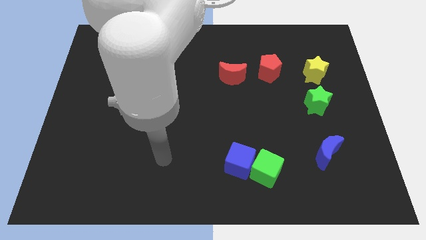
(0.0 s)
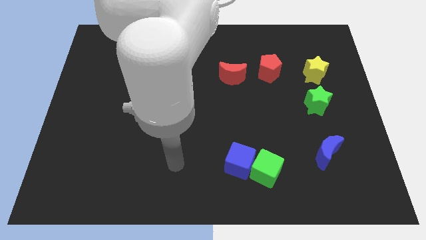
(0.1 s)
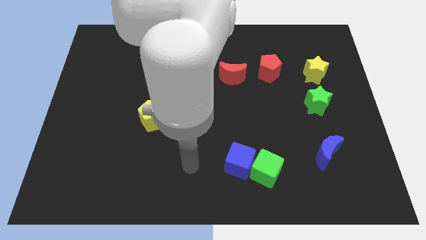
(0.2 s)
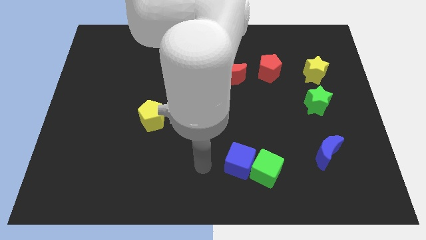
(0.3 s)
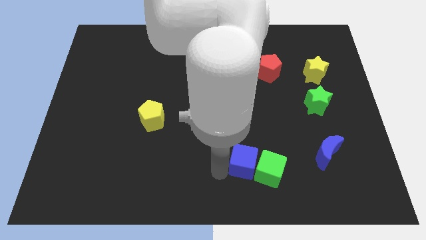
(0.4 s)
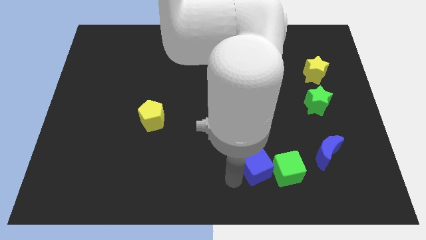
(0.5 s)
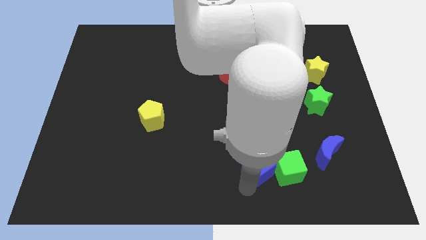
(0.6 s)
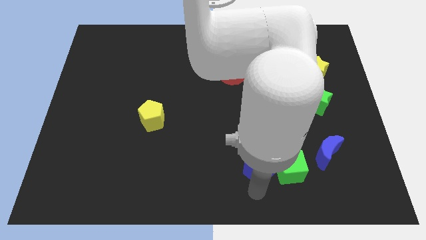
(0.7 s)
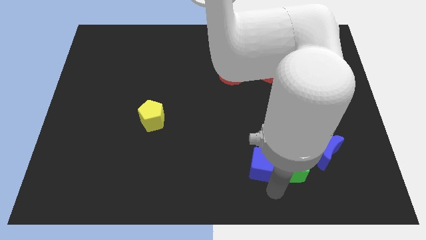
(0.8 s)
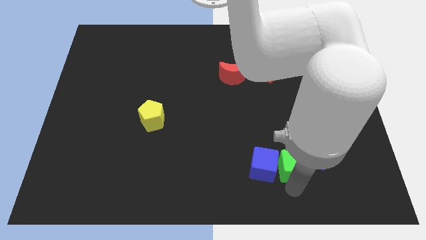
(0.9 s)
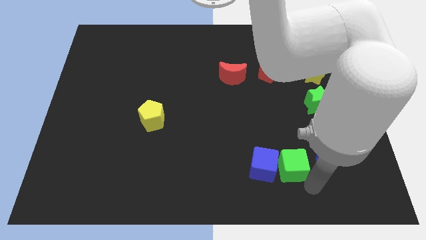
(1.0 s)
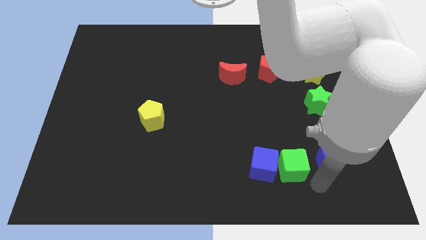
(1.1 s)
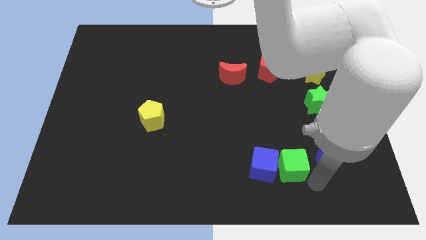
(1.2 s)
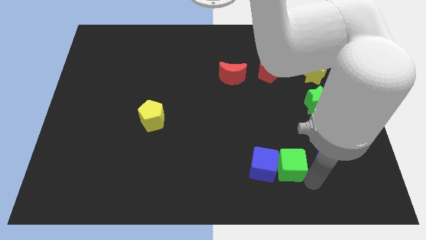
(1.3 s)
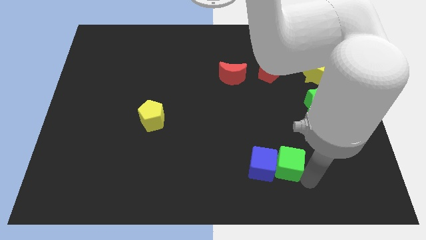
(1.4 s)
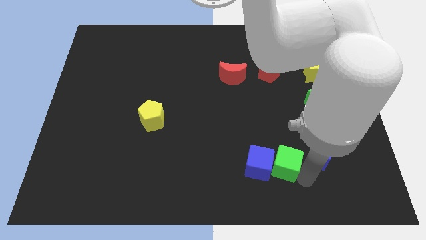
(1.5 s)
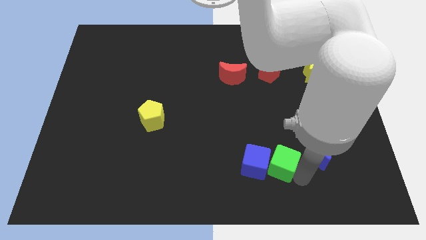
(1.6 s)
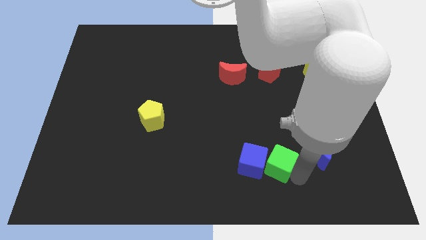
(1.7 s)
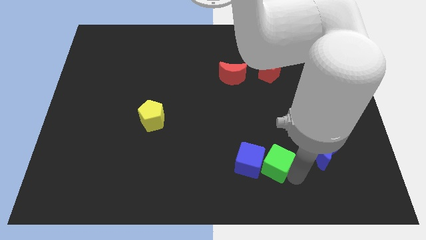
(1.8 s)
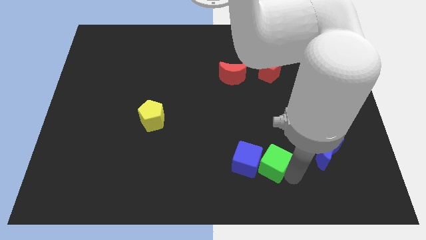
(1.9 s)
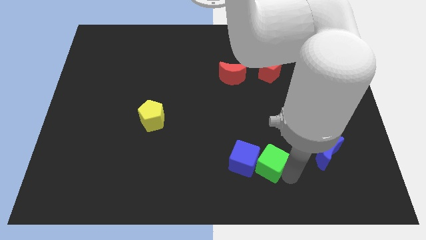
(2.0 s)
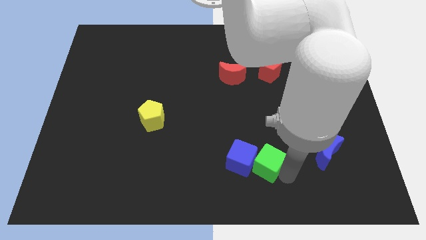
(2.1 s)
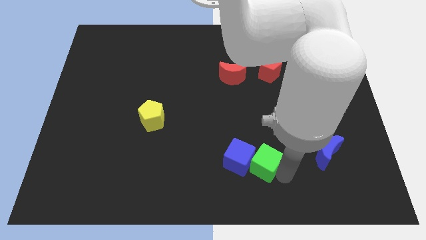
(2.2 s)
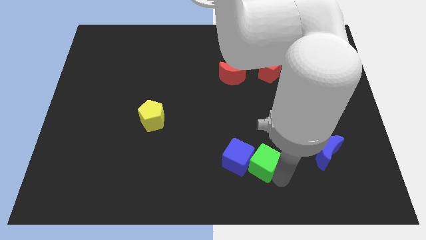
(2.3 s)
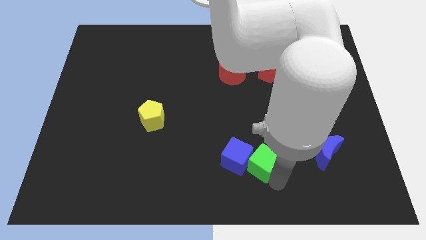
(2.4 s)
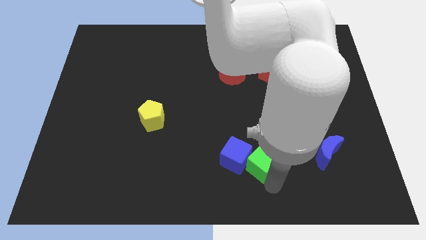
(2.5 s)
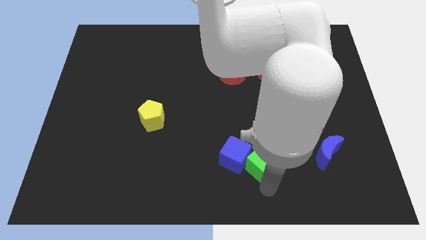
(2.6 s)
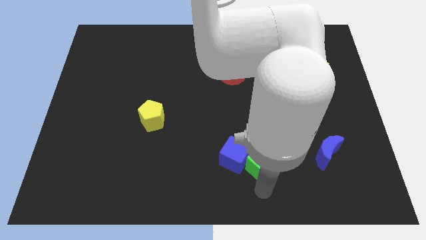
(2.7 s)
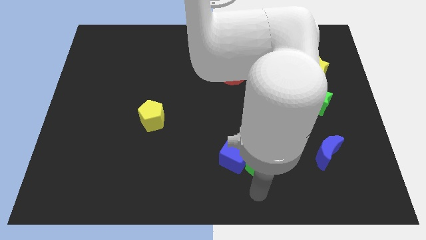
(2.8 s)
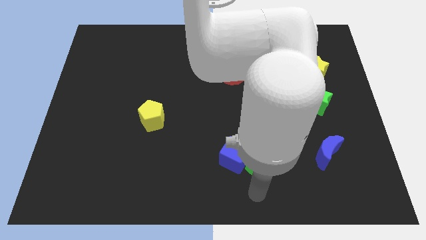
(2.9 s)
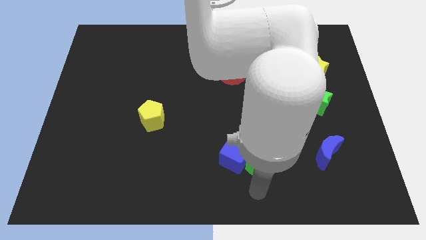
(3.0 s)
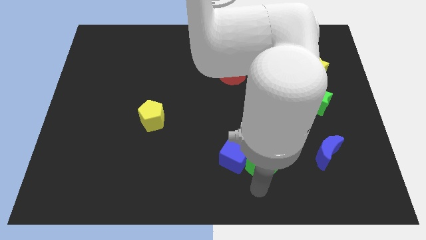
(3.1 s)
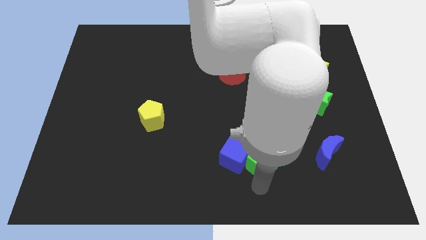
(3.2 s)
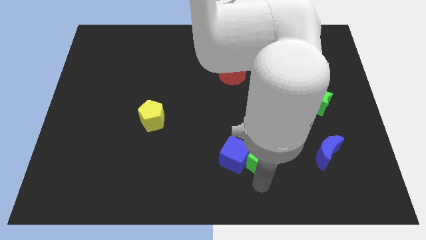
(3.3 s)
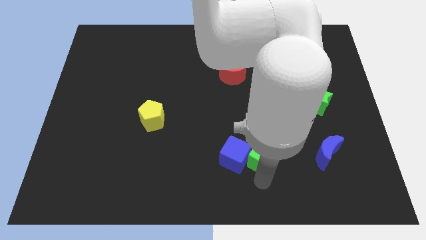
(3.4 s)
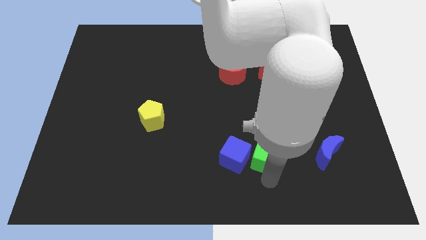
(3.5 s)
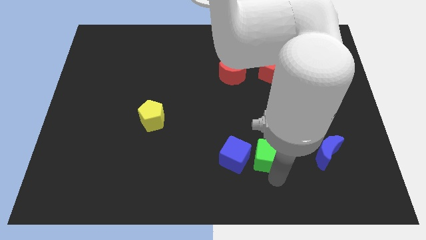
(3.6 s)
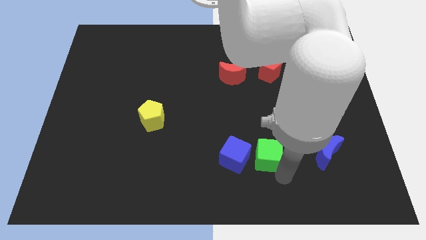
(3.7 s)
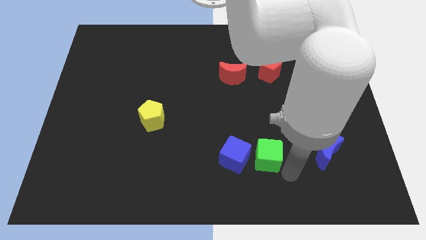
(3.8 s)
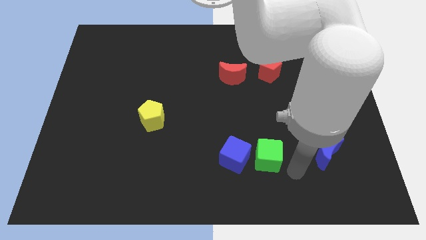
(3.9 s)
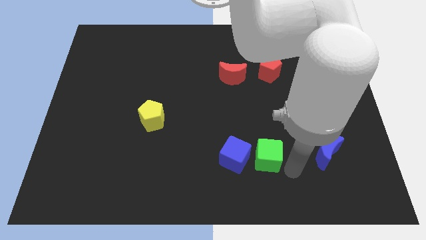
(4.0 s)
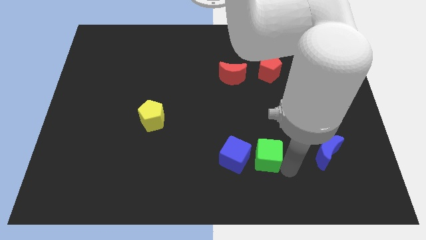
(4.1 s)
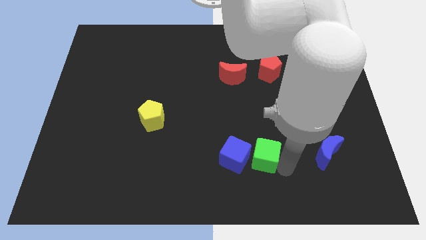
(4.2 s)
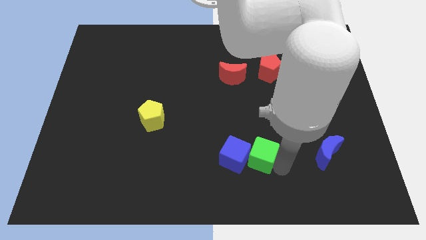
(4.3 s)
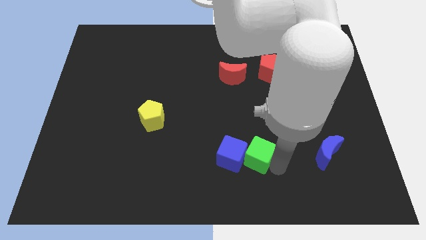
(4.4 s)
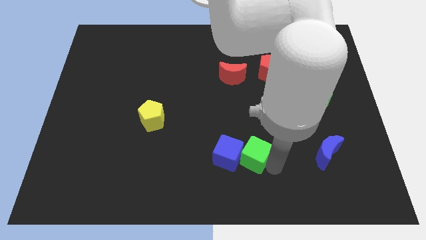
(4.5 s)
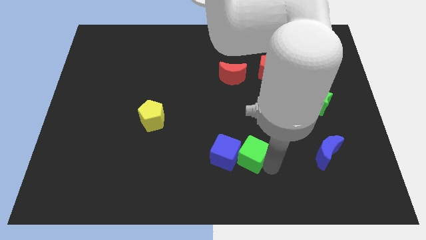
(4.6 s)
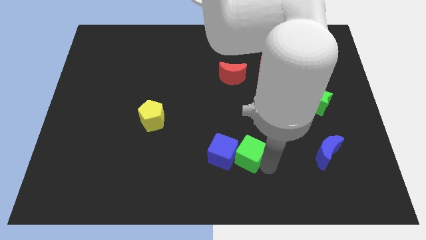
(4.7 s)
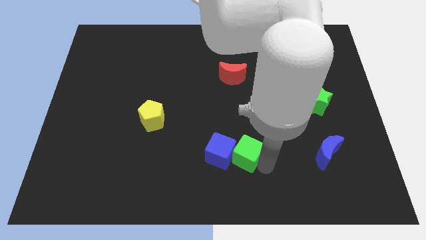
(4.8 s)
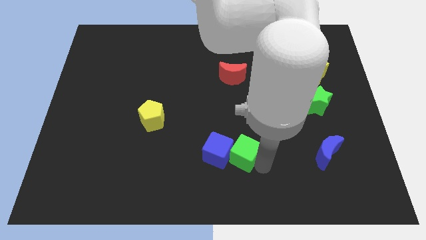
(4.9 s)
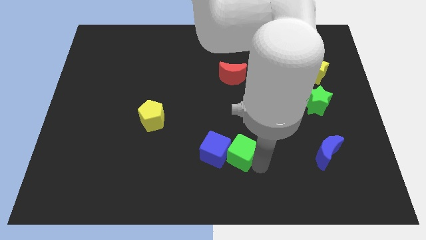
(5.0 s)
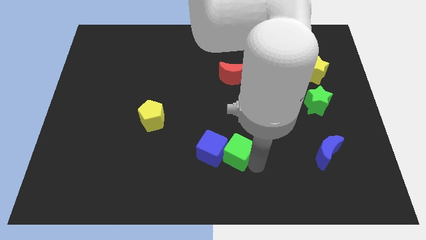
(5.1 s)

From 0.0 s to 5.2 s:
move the green cube a little bit up and left diagonally

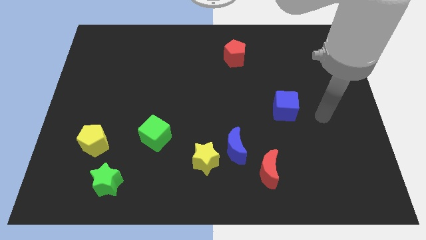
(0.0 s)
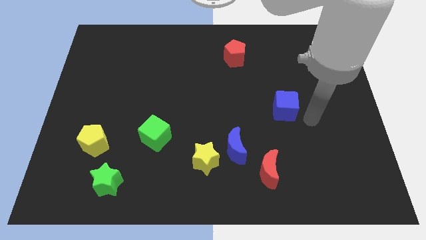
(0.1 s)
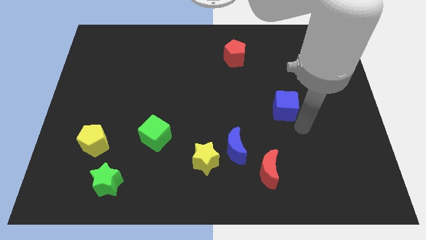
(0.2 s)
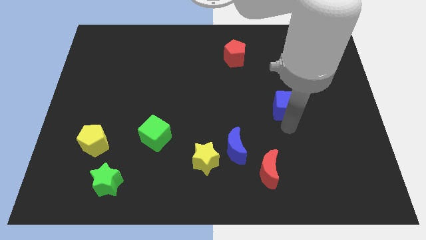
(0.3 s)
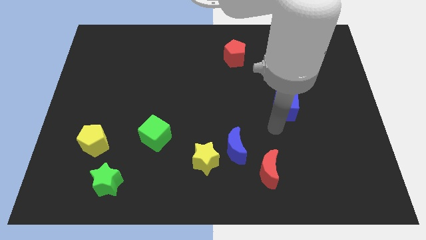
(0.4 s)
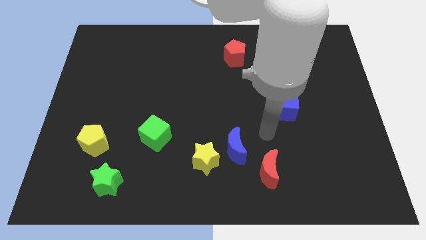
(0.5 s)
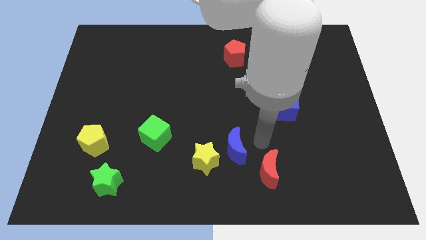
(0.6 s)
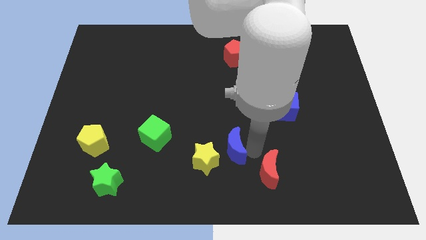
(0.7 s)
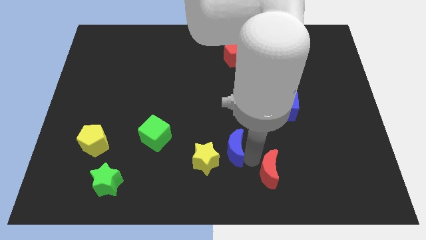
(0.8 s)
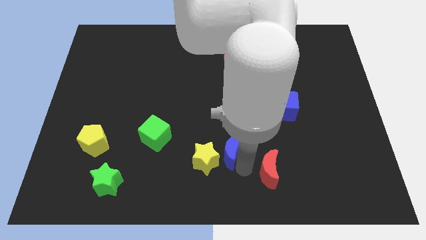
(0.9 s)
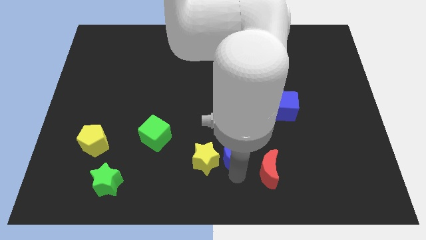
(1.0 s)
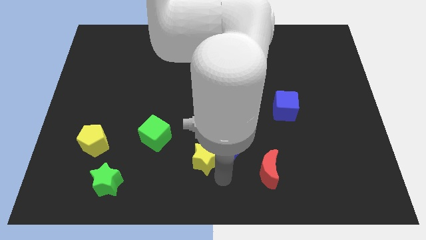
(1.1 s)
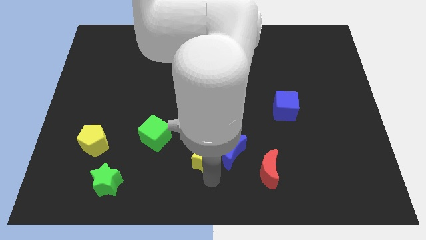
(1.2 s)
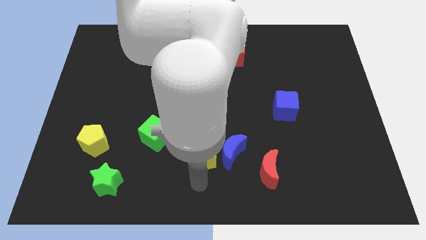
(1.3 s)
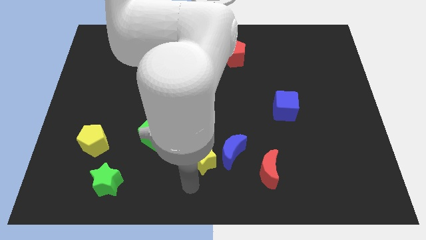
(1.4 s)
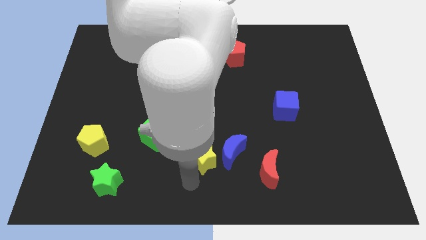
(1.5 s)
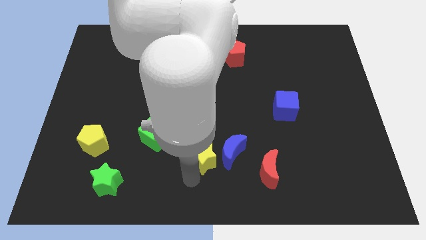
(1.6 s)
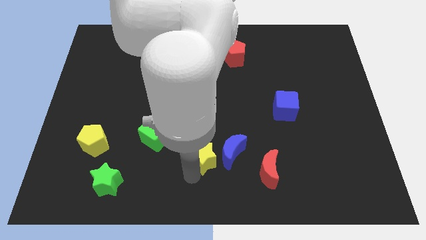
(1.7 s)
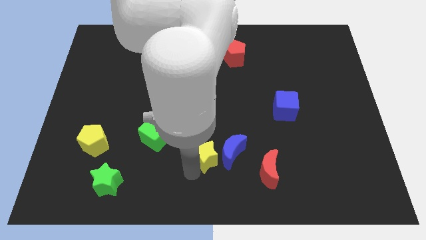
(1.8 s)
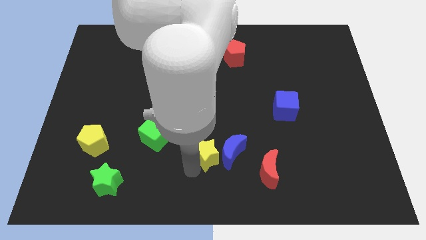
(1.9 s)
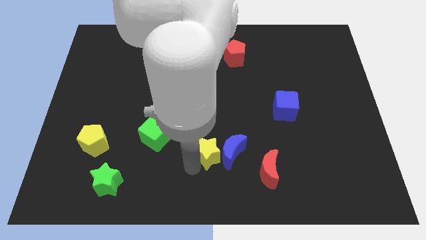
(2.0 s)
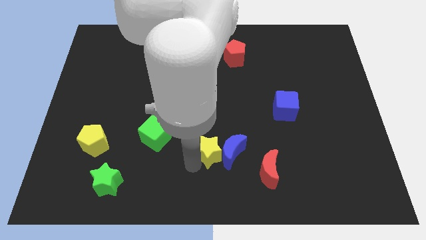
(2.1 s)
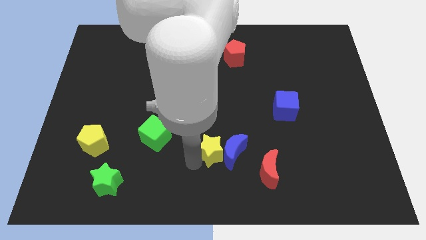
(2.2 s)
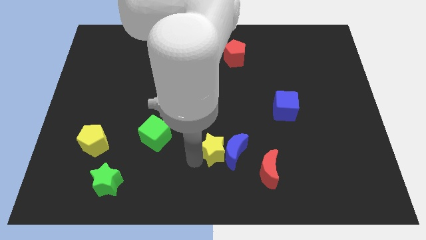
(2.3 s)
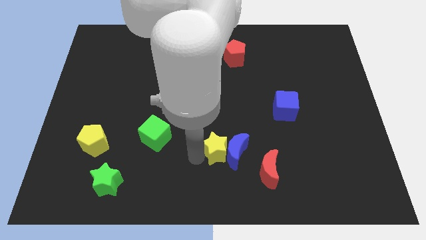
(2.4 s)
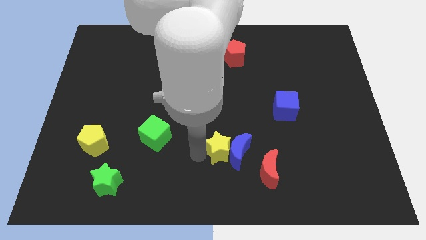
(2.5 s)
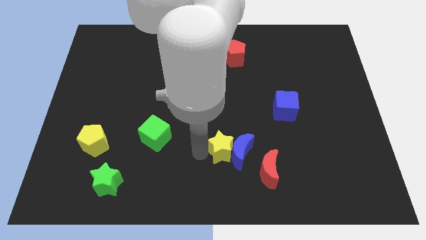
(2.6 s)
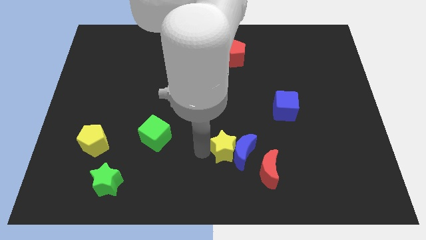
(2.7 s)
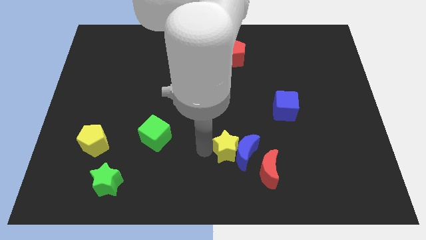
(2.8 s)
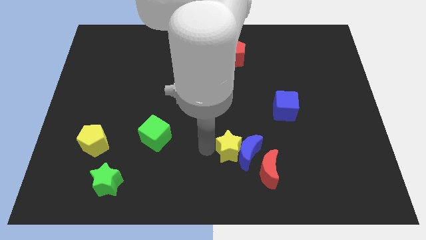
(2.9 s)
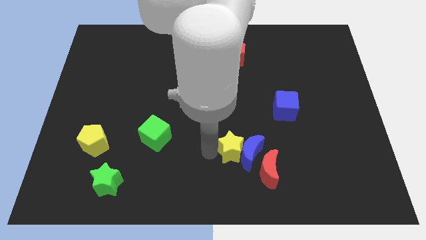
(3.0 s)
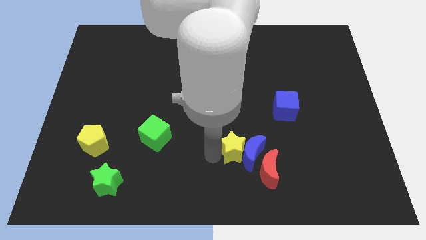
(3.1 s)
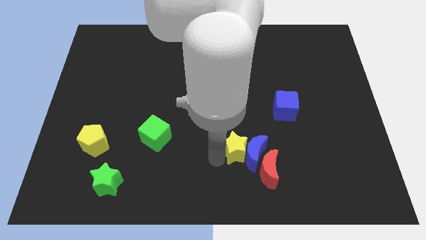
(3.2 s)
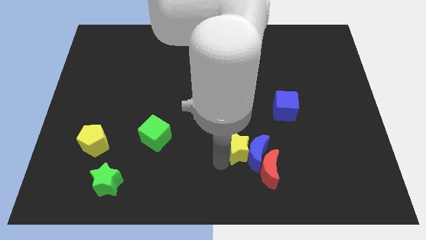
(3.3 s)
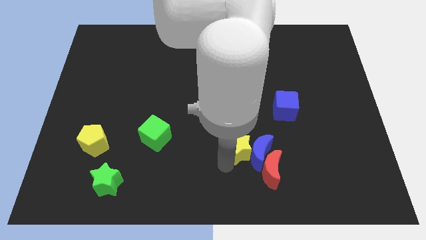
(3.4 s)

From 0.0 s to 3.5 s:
push the yellow star a little right
